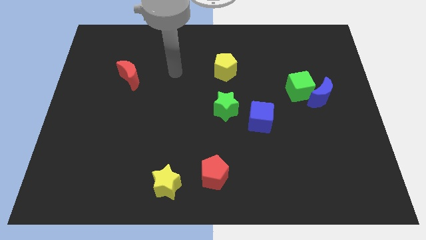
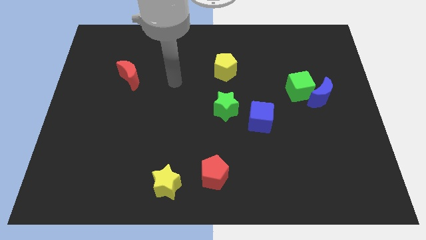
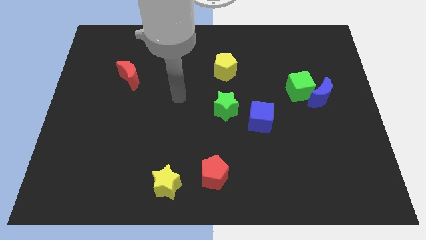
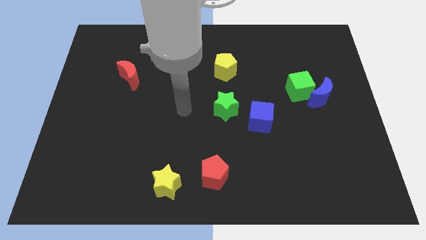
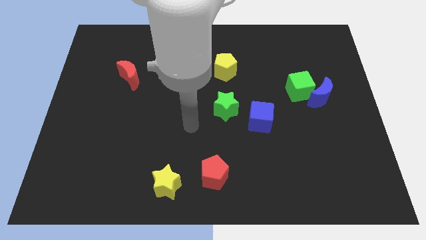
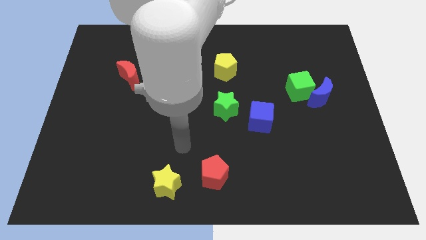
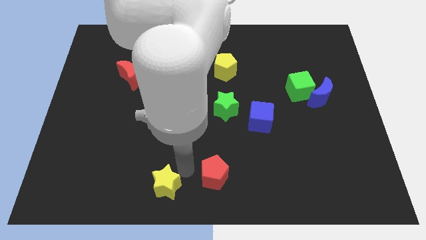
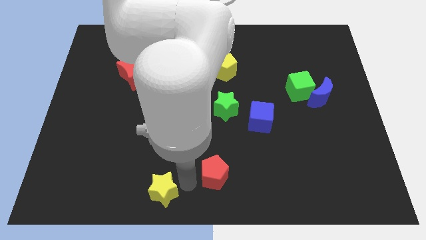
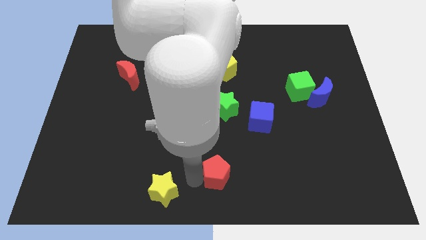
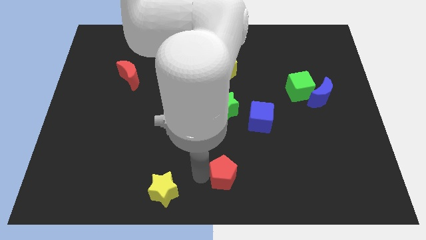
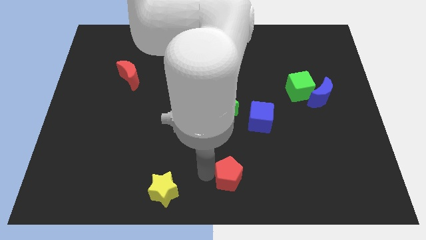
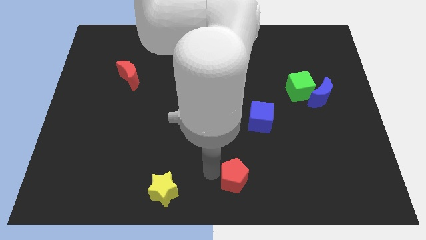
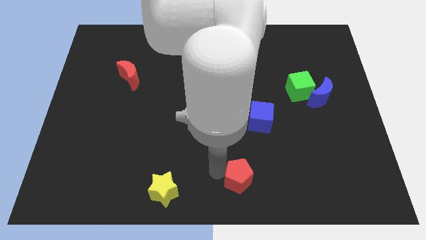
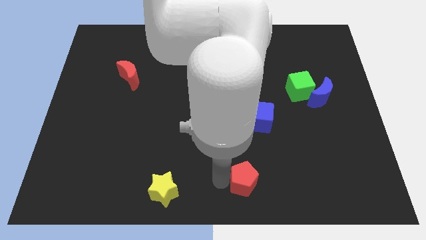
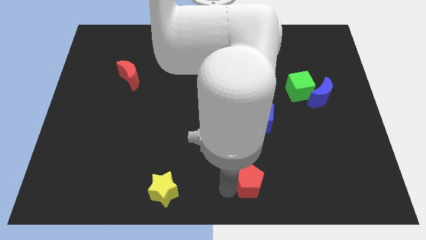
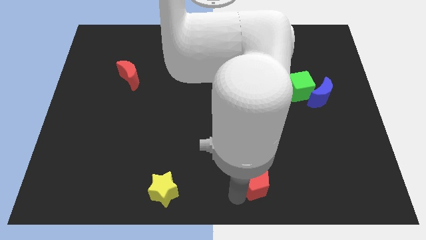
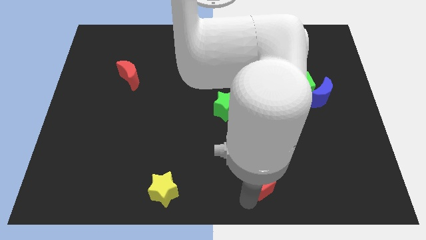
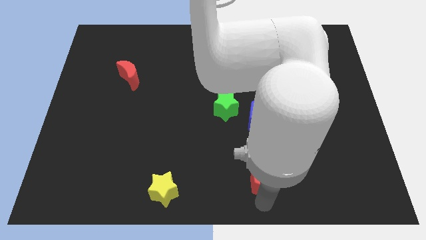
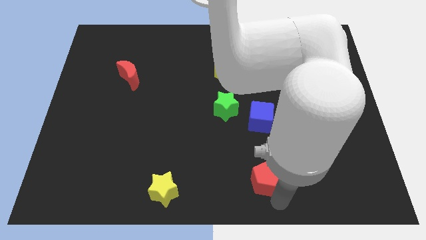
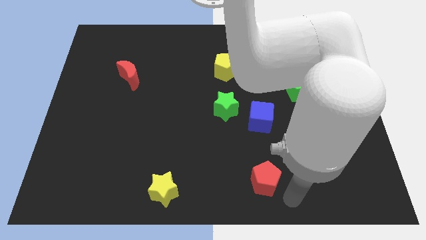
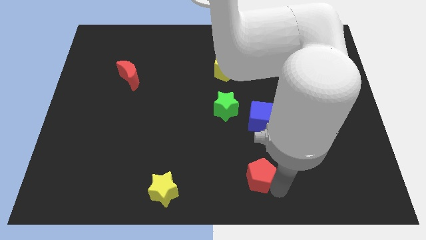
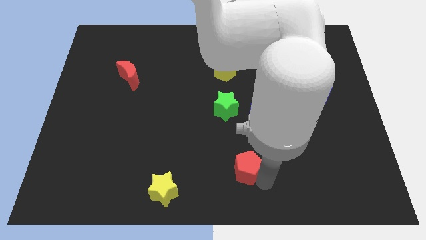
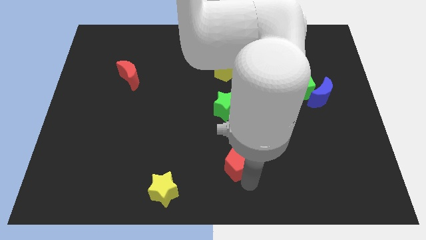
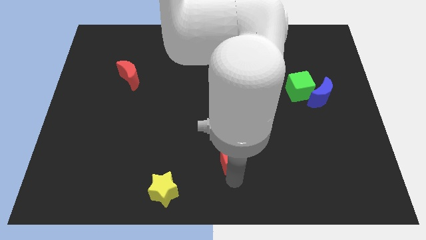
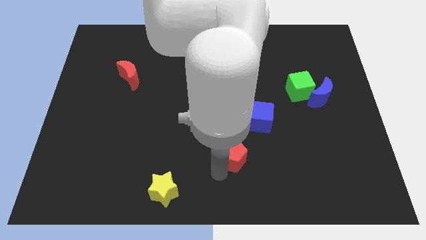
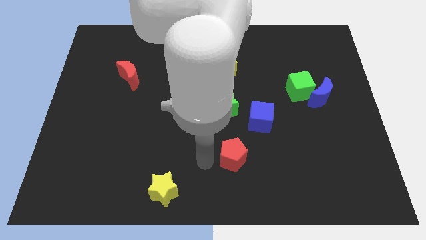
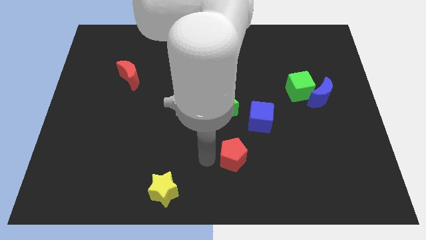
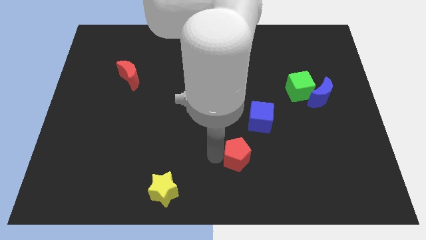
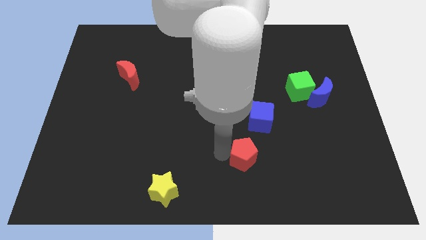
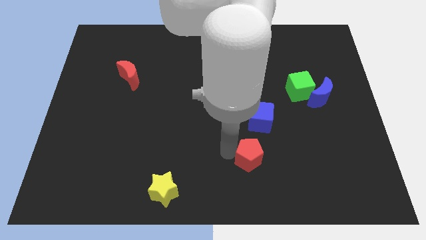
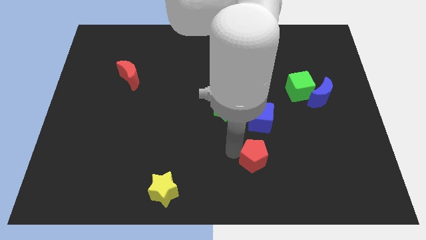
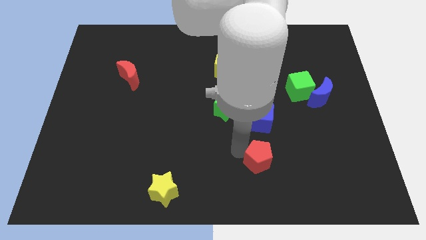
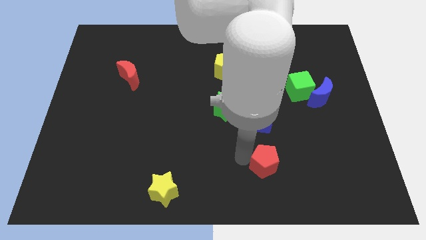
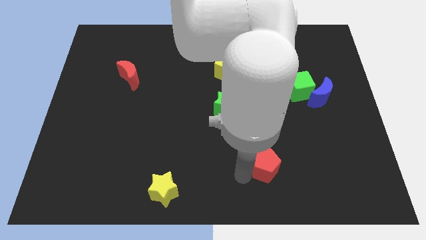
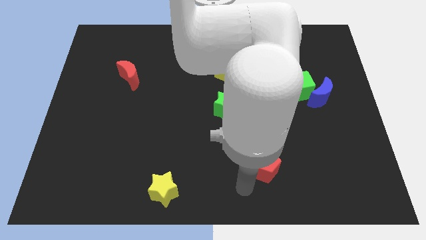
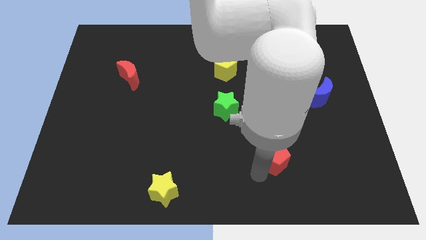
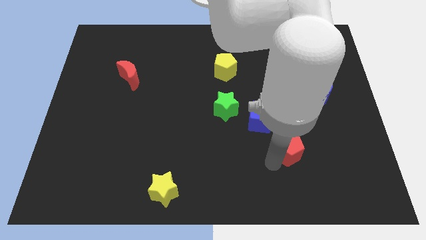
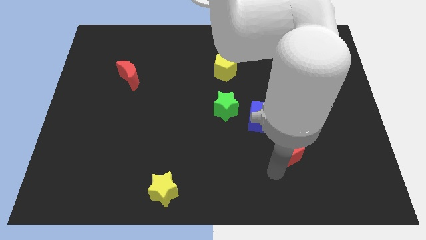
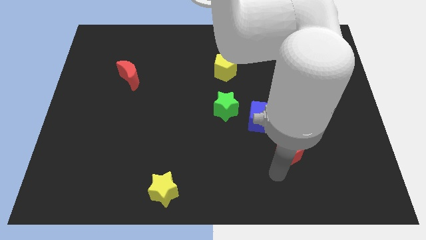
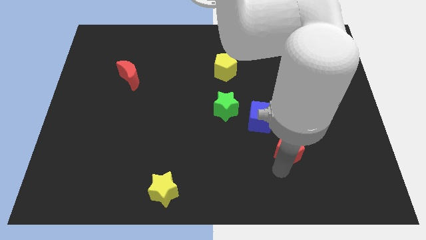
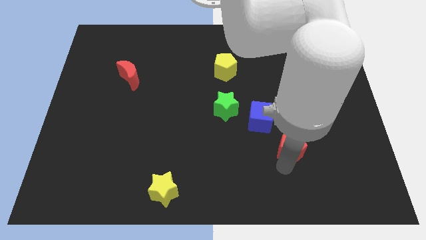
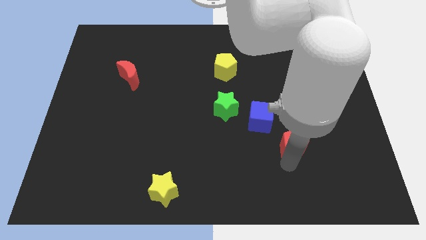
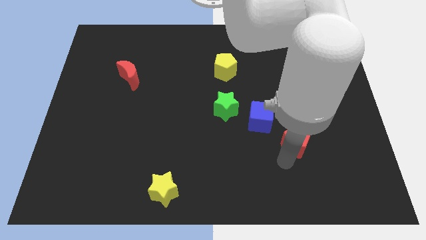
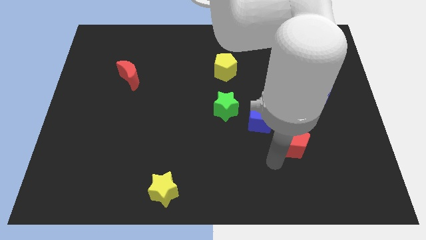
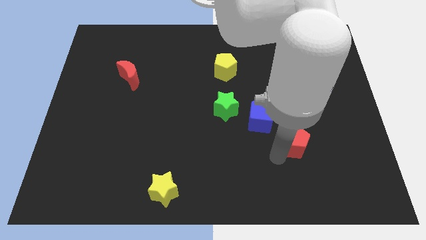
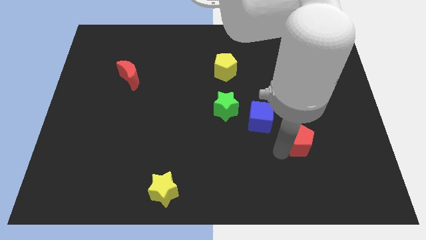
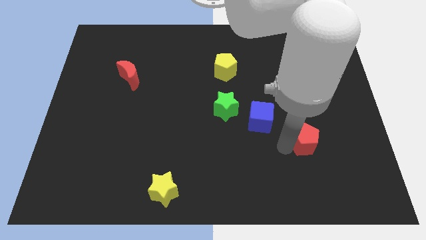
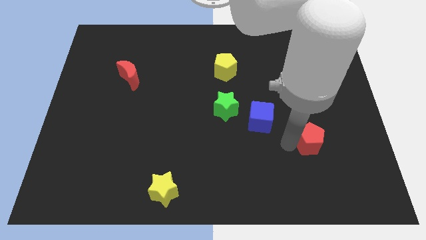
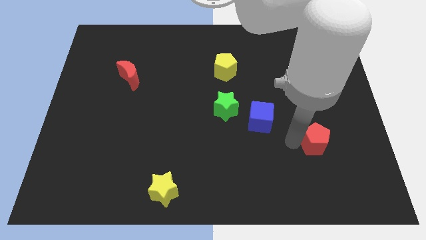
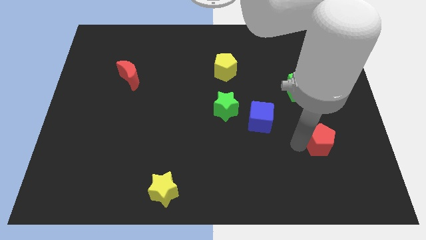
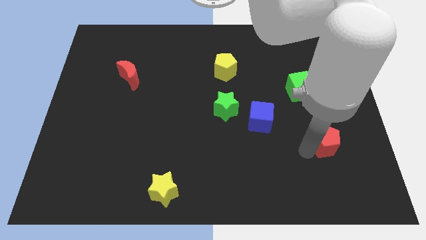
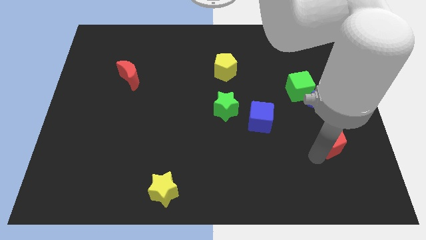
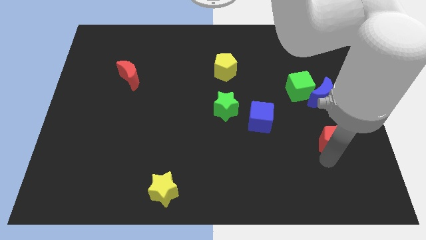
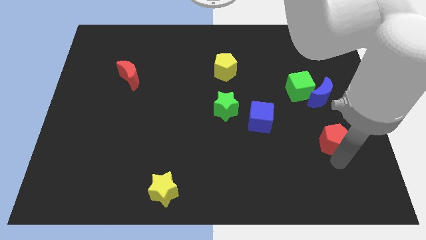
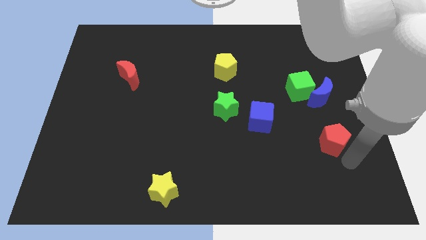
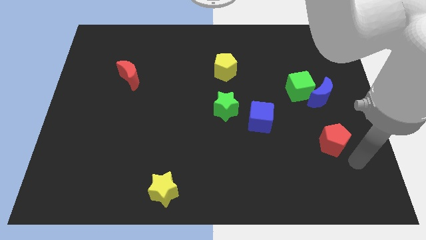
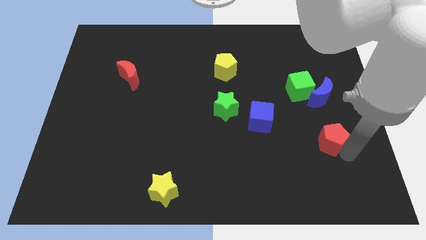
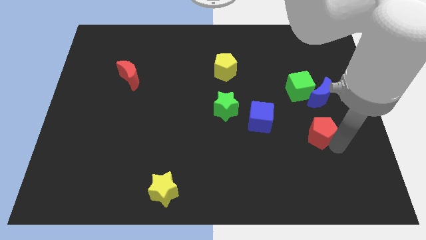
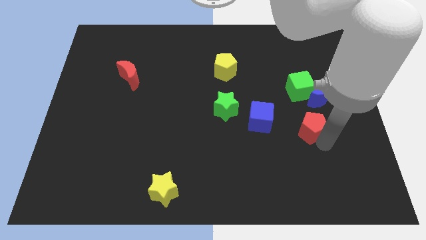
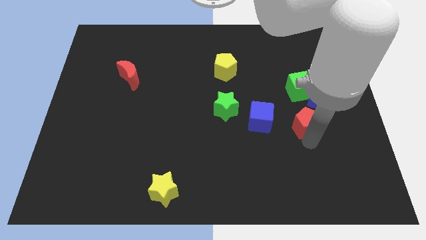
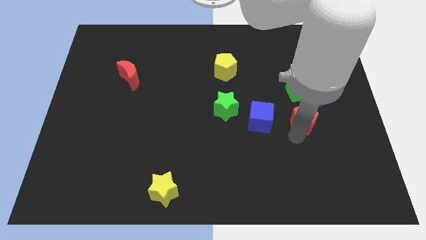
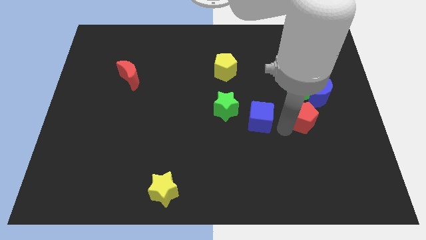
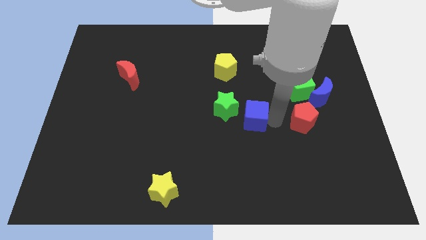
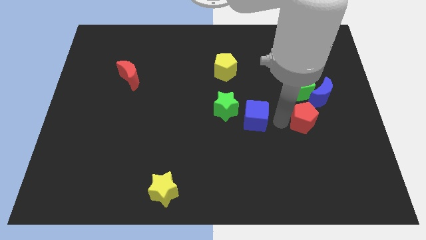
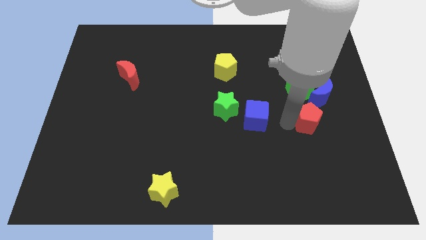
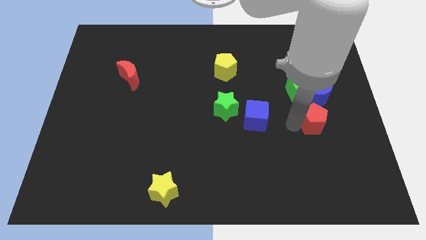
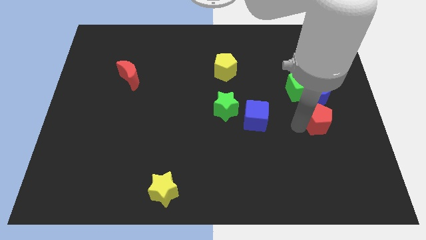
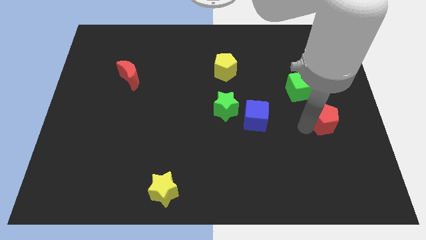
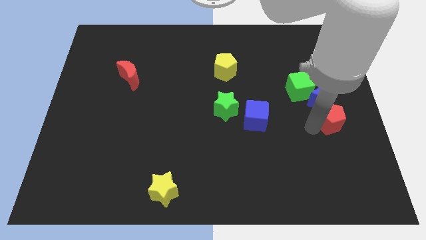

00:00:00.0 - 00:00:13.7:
slide the red pentagon to the right side

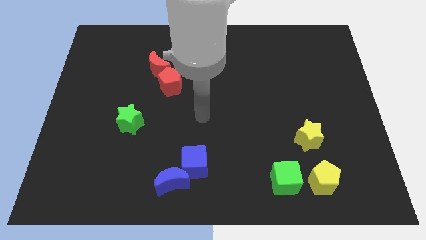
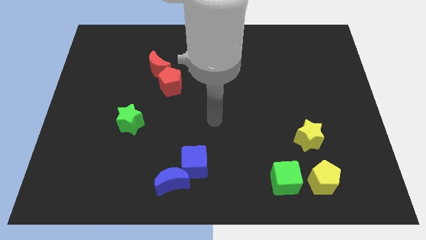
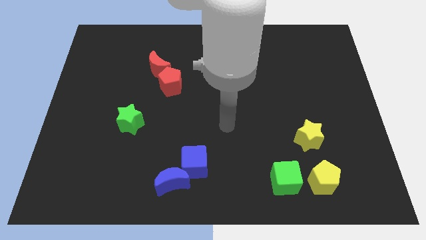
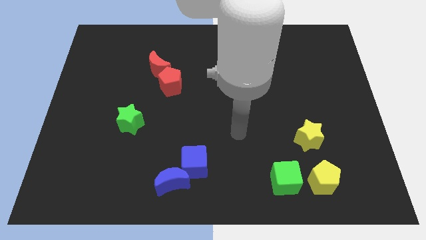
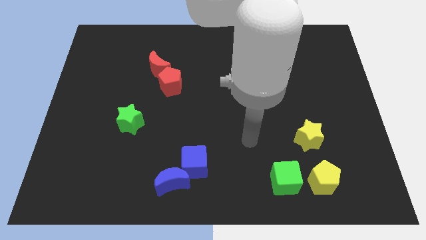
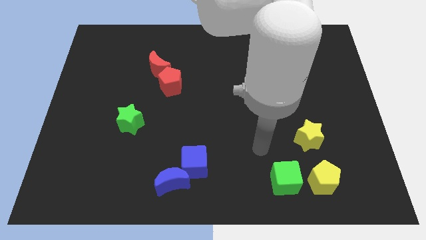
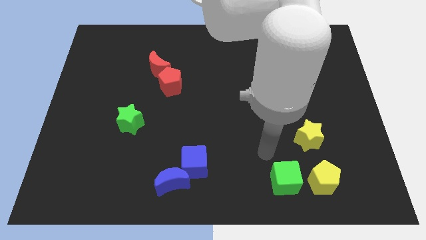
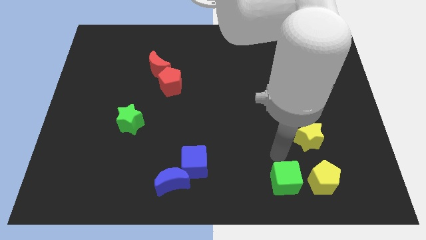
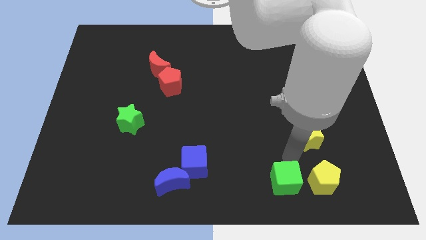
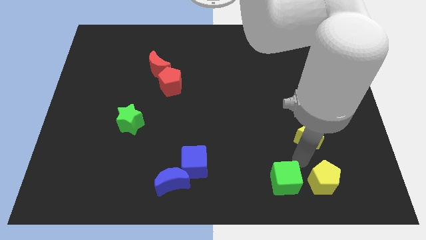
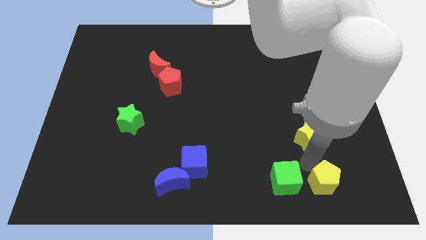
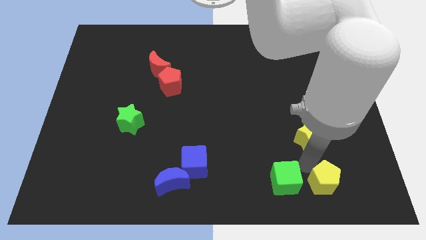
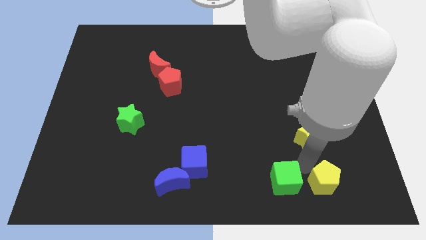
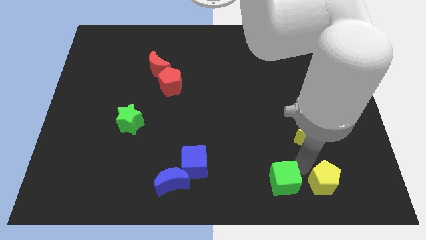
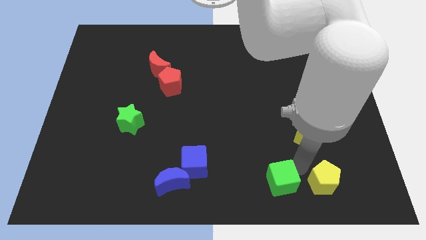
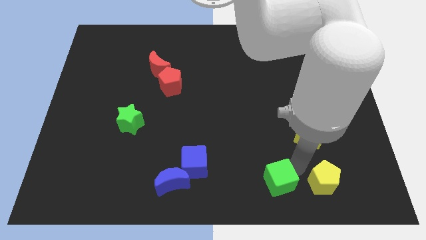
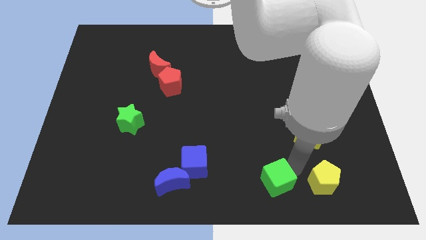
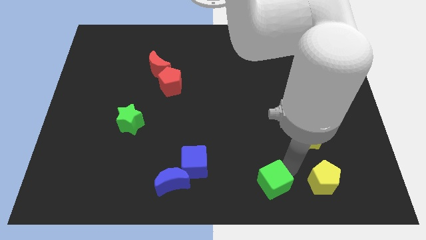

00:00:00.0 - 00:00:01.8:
move the green cube to the bottom side
